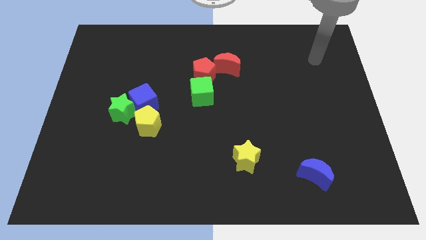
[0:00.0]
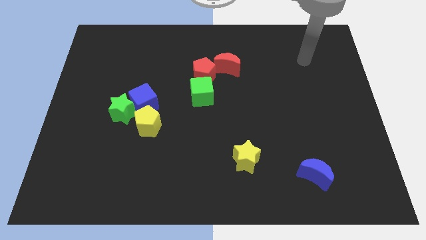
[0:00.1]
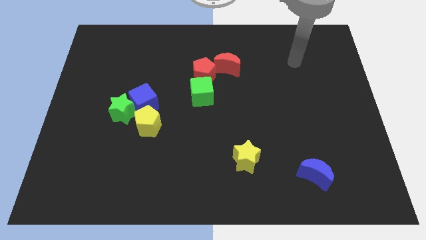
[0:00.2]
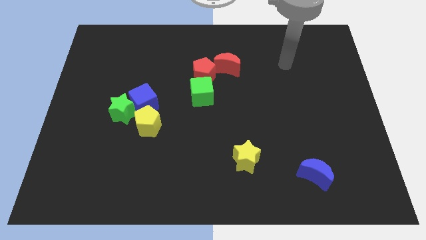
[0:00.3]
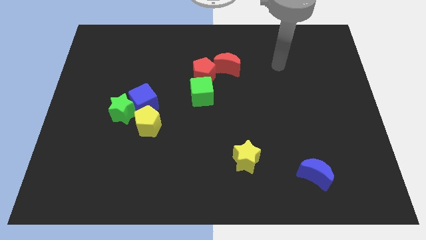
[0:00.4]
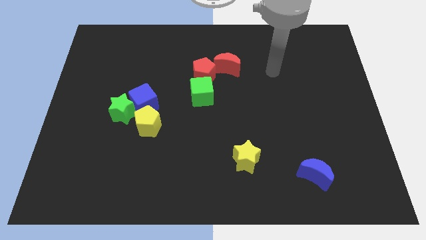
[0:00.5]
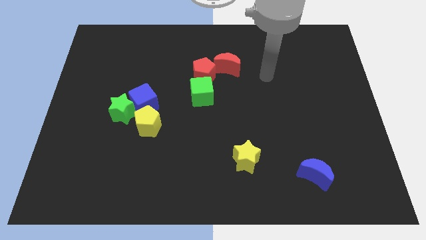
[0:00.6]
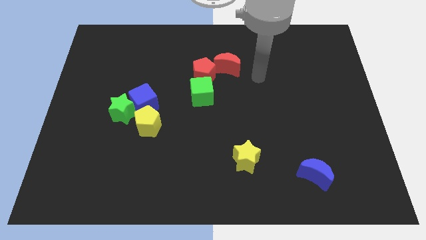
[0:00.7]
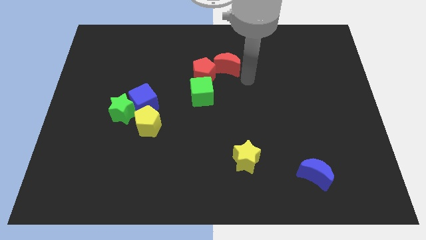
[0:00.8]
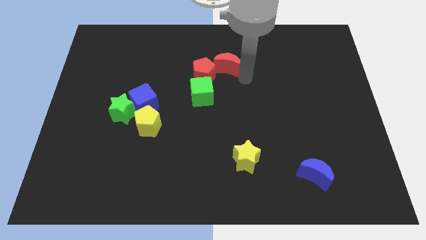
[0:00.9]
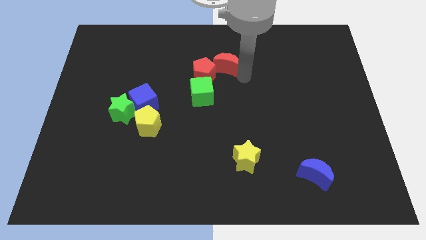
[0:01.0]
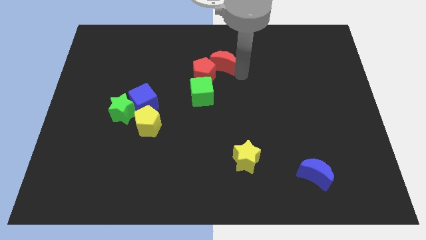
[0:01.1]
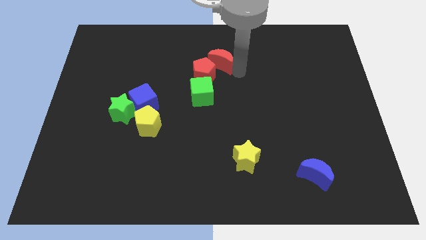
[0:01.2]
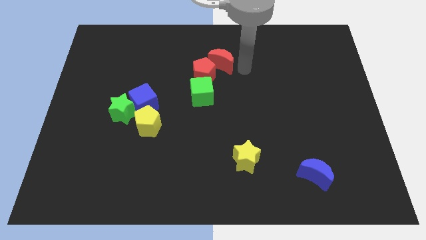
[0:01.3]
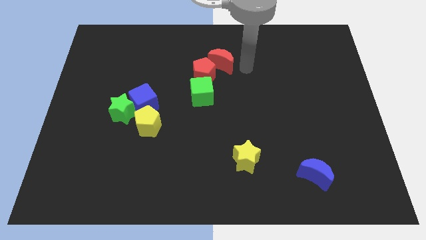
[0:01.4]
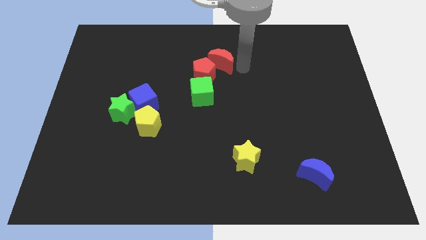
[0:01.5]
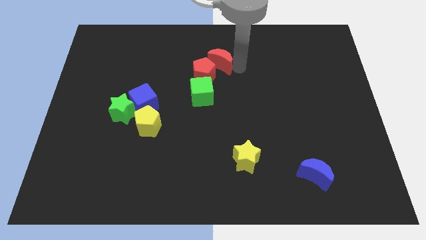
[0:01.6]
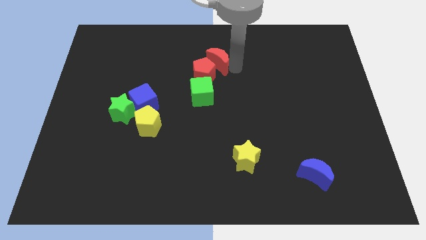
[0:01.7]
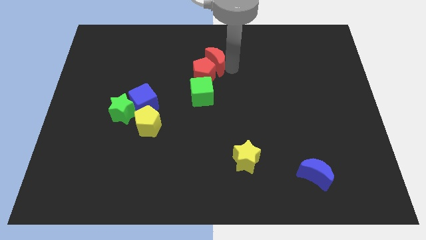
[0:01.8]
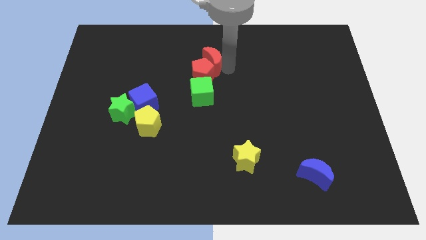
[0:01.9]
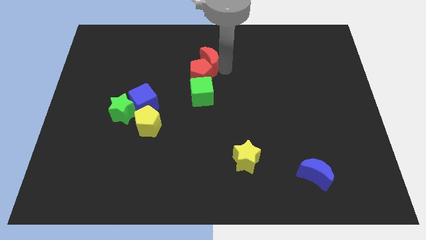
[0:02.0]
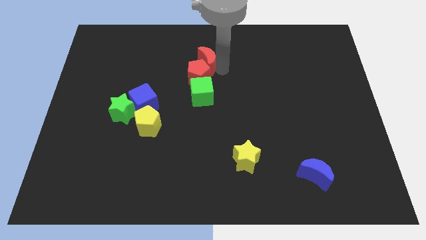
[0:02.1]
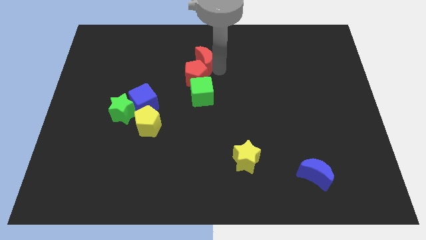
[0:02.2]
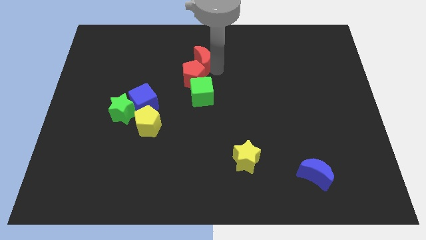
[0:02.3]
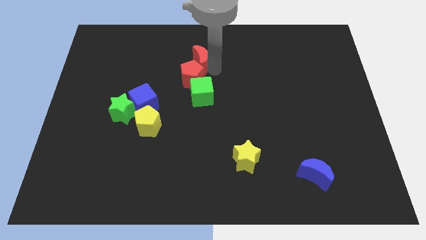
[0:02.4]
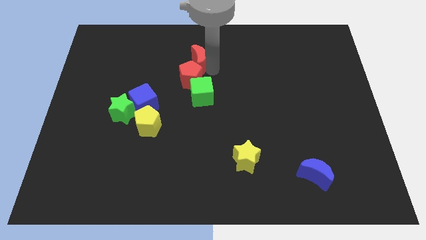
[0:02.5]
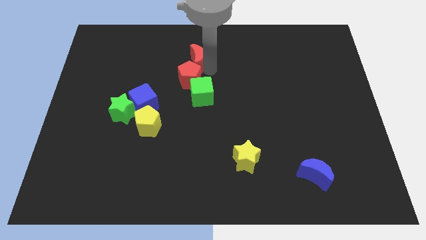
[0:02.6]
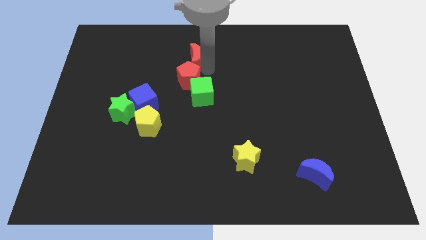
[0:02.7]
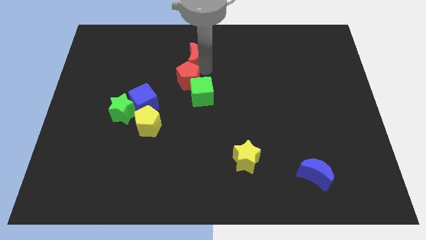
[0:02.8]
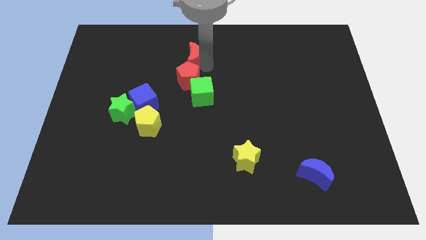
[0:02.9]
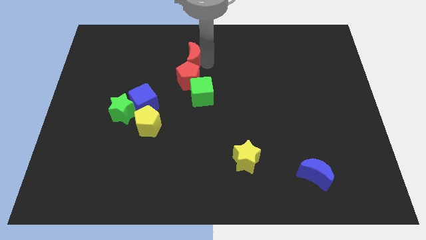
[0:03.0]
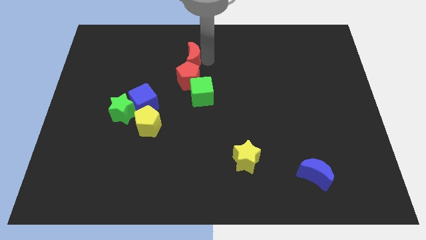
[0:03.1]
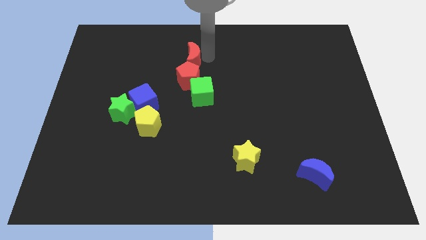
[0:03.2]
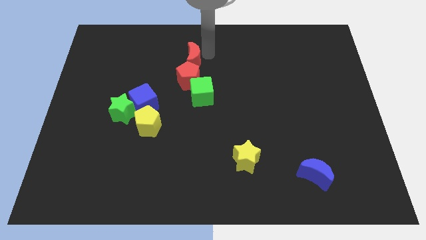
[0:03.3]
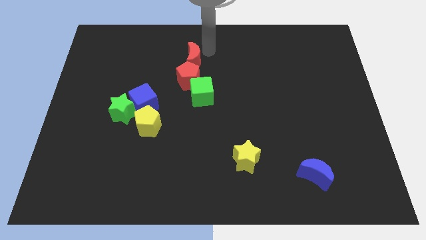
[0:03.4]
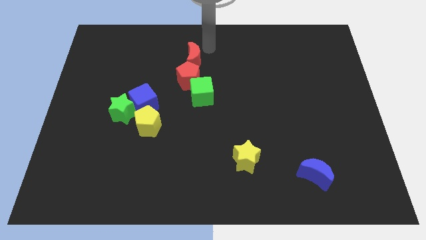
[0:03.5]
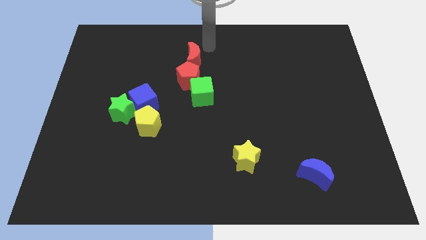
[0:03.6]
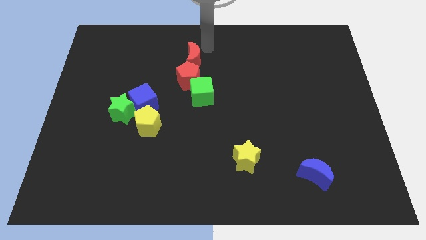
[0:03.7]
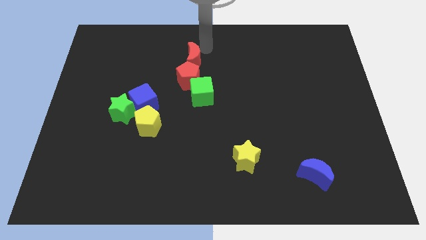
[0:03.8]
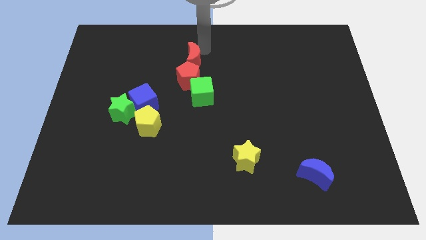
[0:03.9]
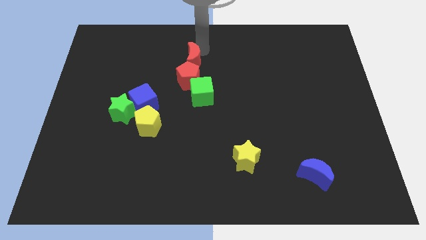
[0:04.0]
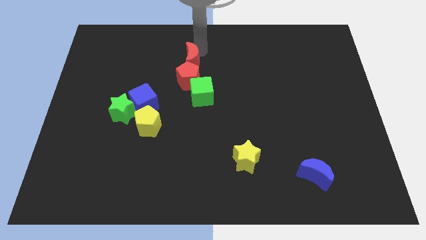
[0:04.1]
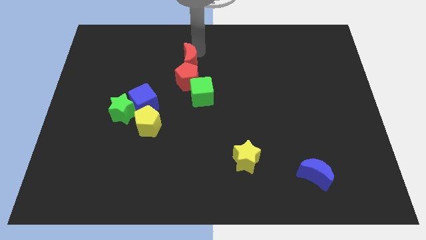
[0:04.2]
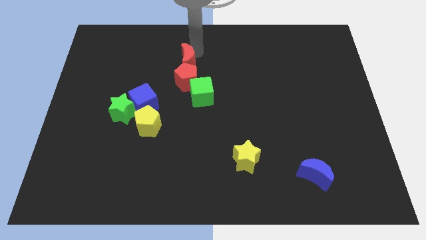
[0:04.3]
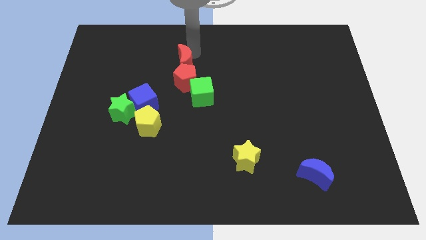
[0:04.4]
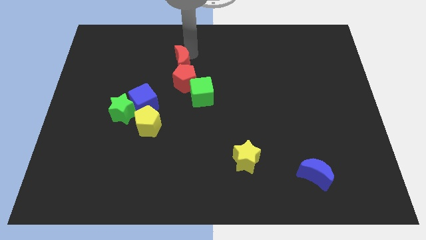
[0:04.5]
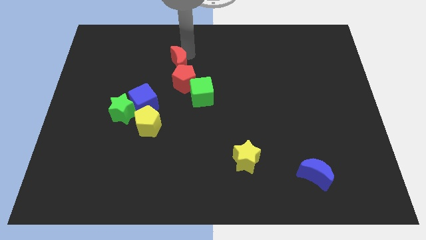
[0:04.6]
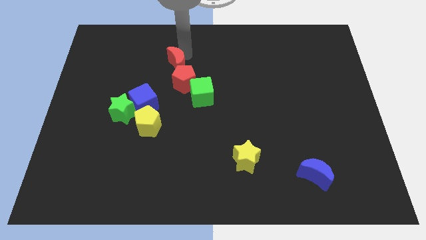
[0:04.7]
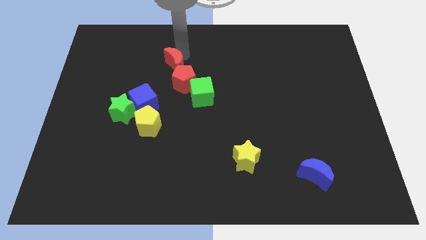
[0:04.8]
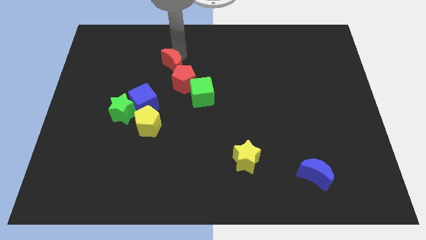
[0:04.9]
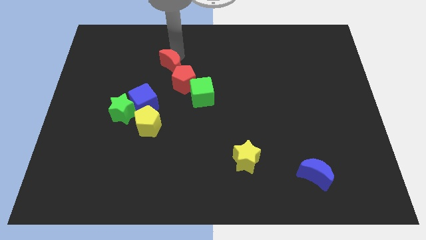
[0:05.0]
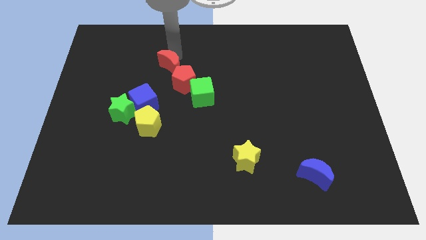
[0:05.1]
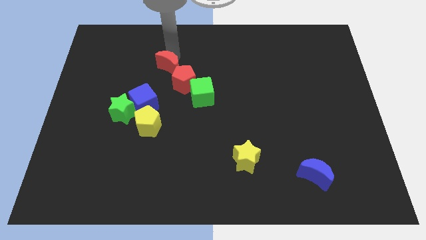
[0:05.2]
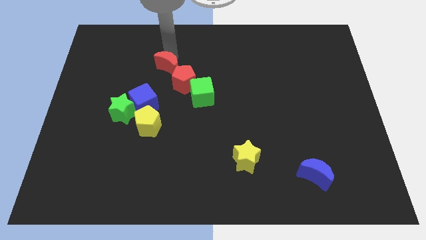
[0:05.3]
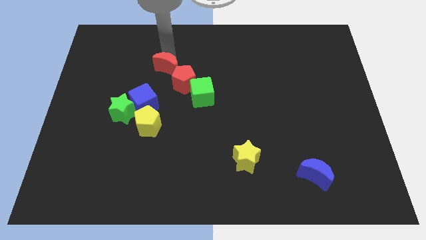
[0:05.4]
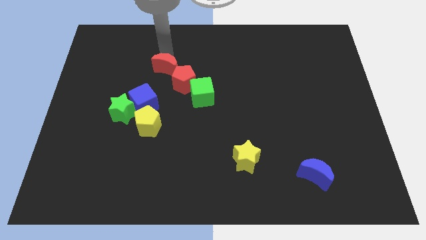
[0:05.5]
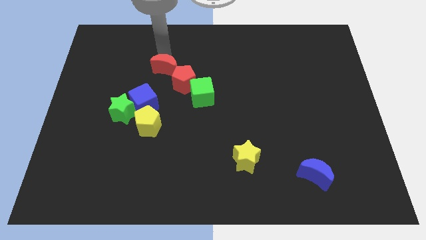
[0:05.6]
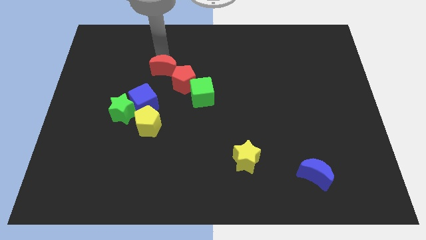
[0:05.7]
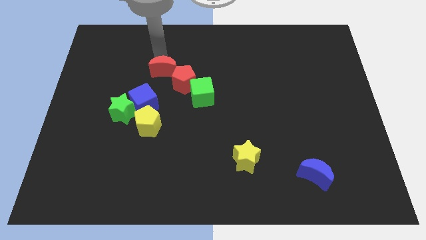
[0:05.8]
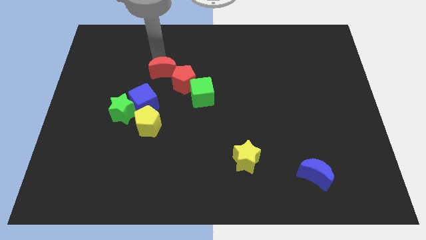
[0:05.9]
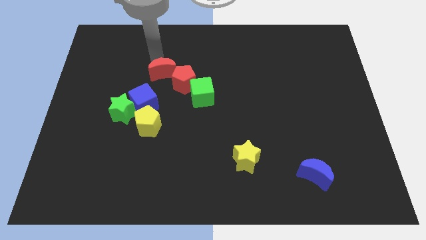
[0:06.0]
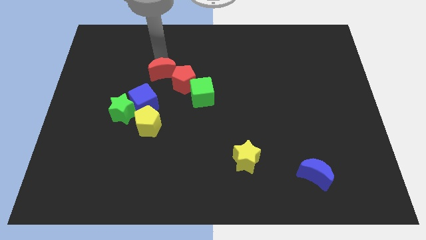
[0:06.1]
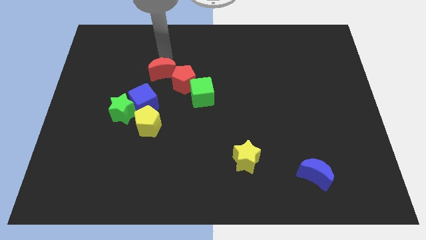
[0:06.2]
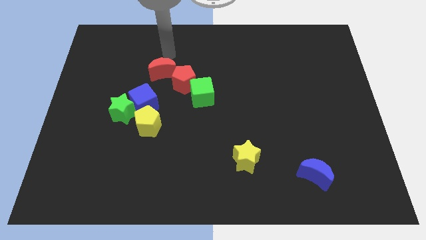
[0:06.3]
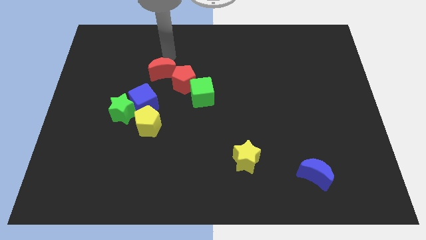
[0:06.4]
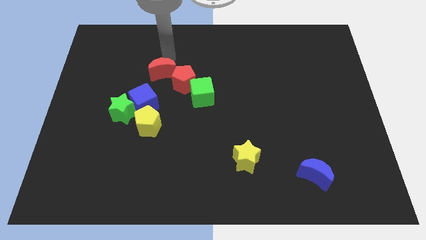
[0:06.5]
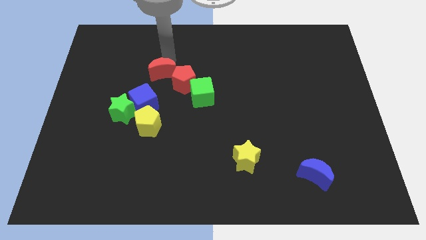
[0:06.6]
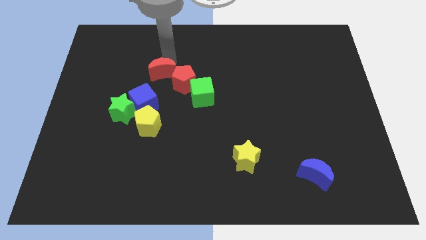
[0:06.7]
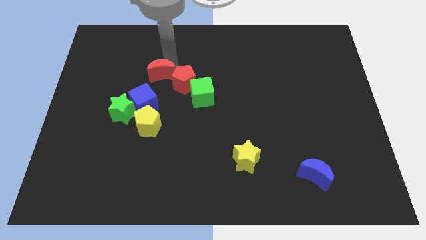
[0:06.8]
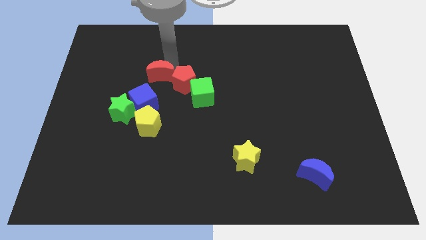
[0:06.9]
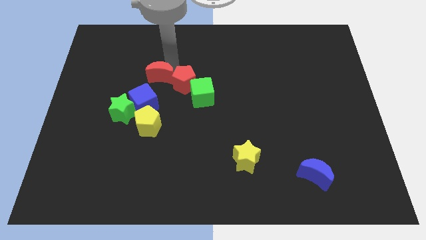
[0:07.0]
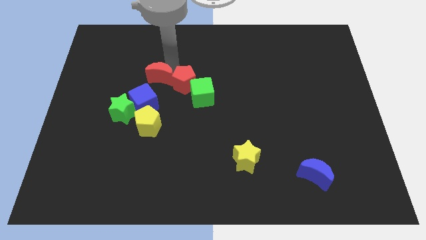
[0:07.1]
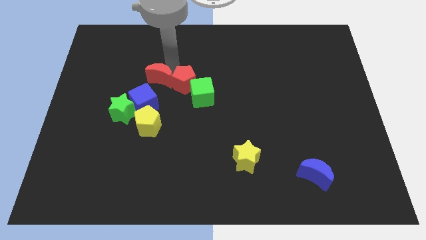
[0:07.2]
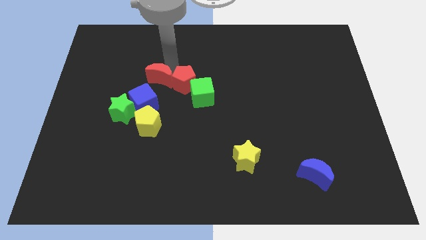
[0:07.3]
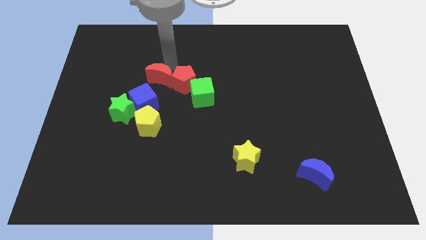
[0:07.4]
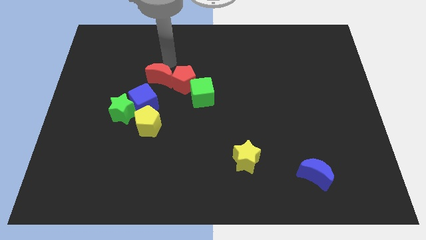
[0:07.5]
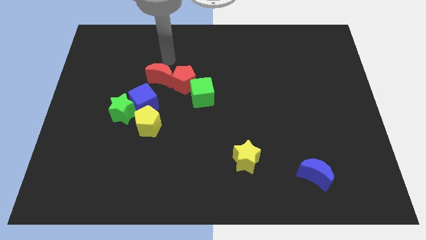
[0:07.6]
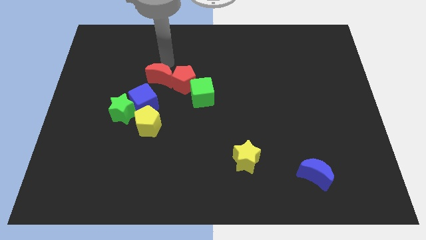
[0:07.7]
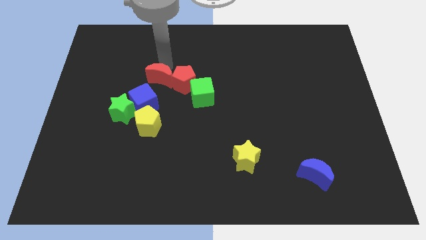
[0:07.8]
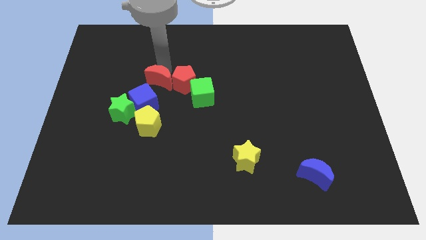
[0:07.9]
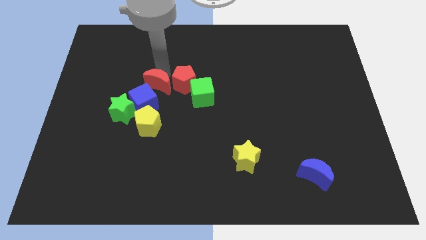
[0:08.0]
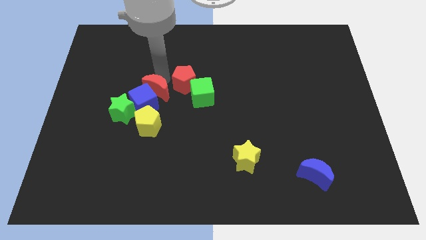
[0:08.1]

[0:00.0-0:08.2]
put the red moon towards the blue cube

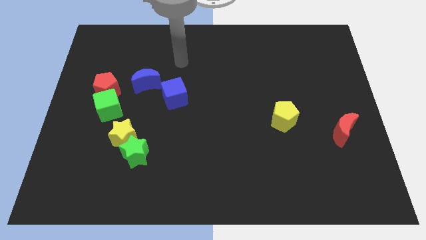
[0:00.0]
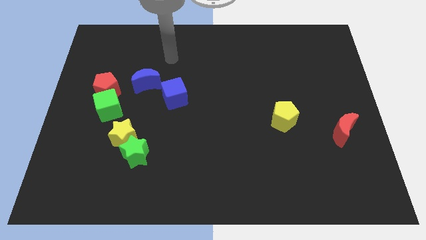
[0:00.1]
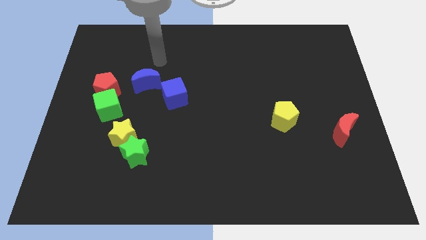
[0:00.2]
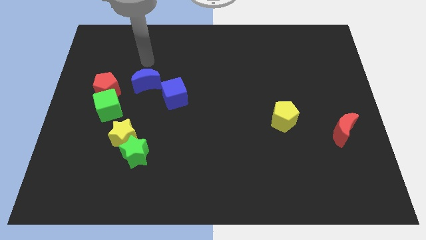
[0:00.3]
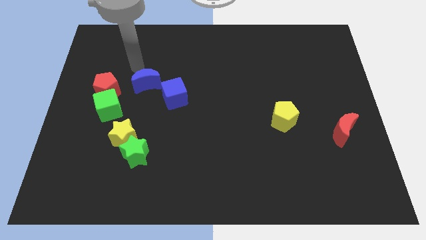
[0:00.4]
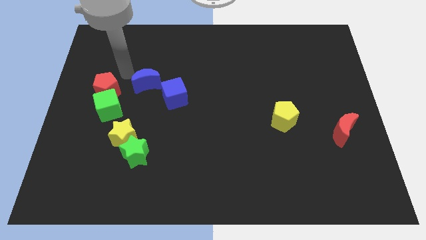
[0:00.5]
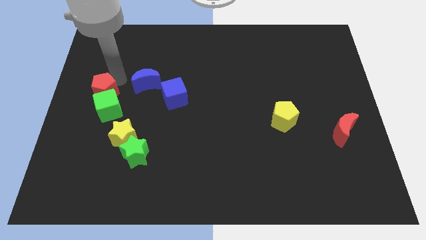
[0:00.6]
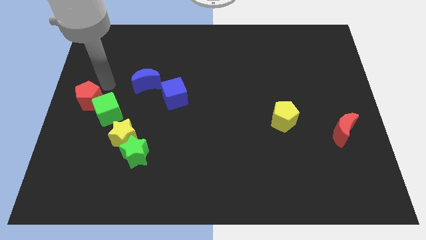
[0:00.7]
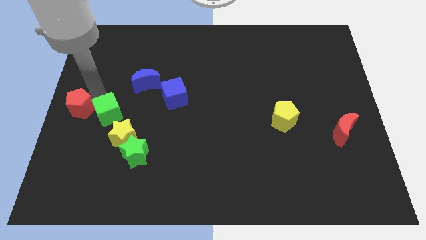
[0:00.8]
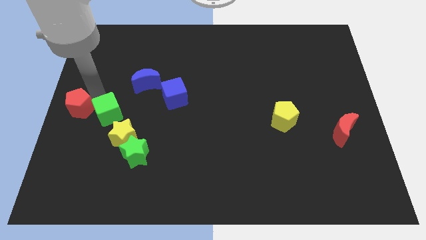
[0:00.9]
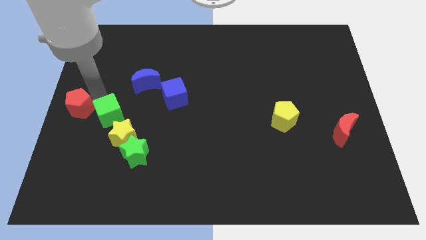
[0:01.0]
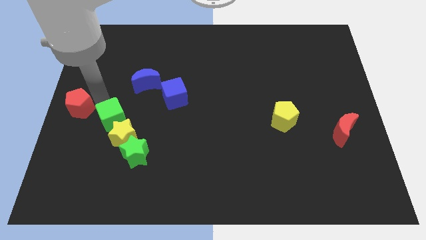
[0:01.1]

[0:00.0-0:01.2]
push the green cube next to the yellow star
